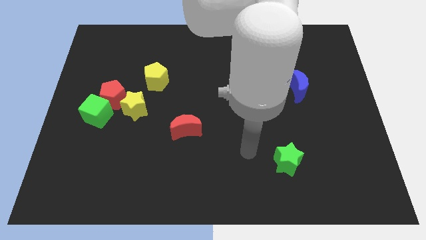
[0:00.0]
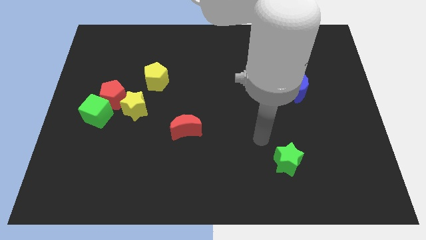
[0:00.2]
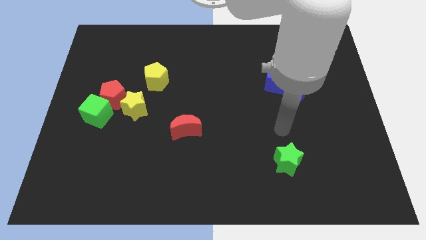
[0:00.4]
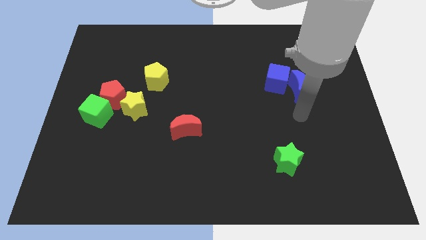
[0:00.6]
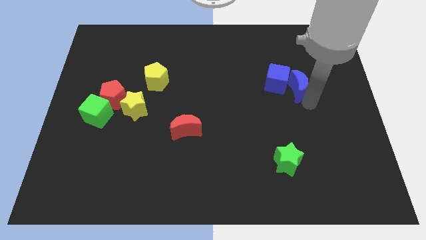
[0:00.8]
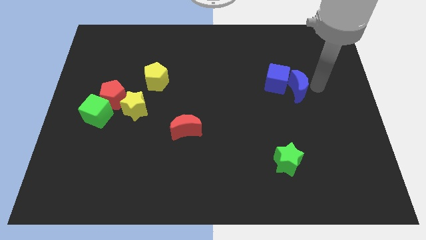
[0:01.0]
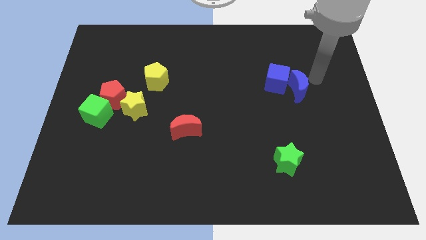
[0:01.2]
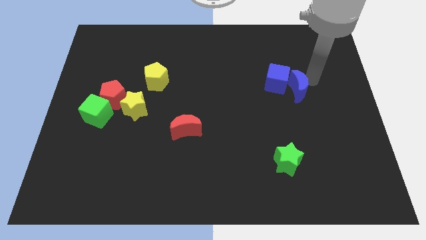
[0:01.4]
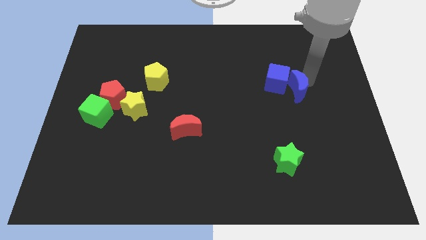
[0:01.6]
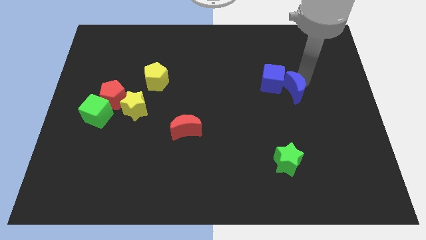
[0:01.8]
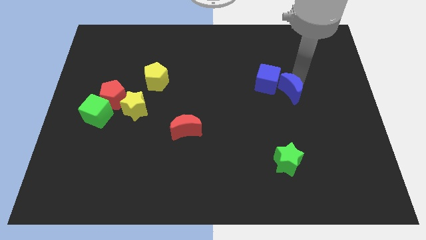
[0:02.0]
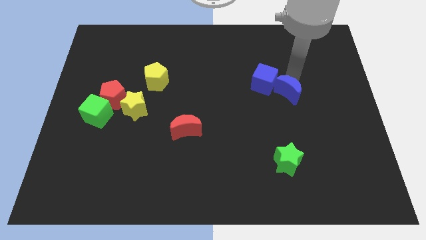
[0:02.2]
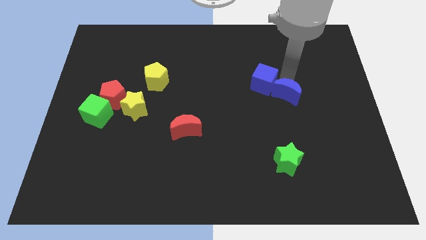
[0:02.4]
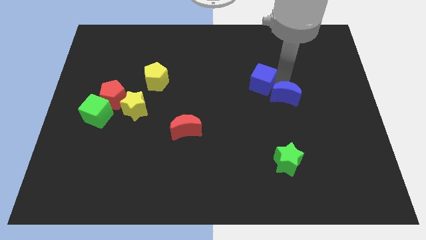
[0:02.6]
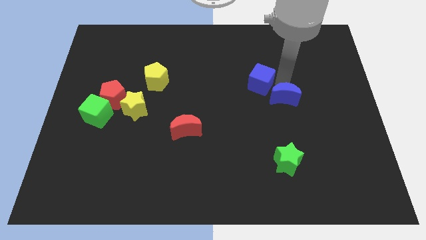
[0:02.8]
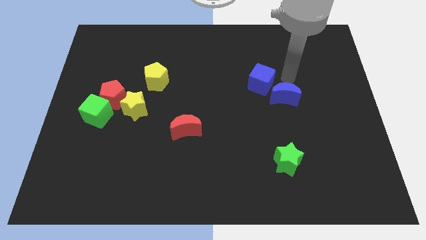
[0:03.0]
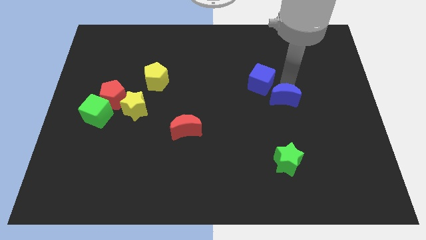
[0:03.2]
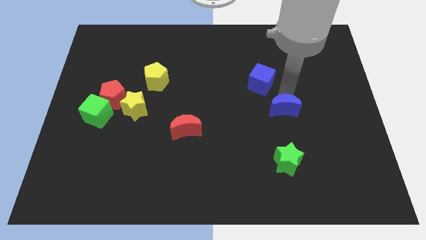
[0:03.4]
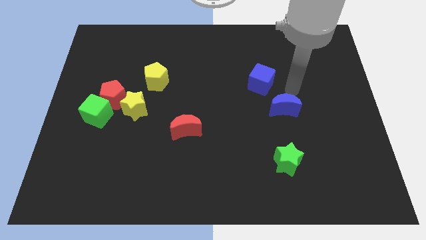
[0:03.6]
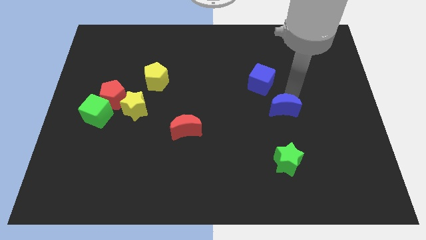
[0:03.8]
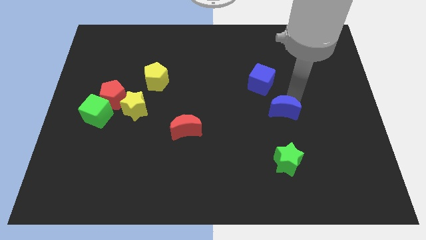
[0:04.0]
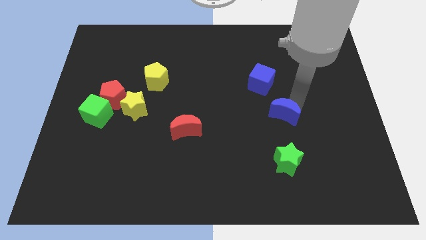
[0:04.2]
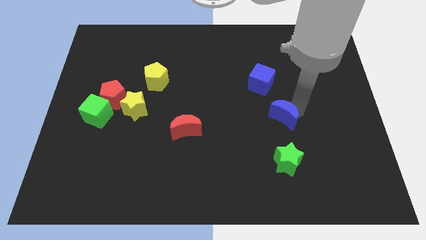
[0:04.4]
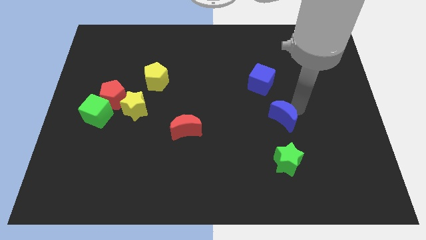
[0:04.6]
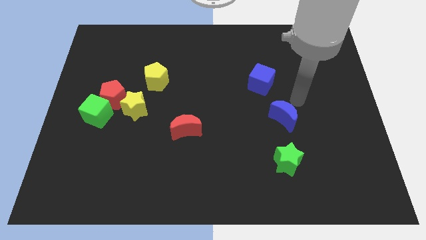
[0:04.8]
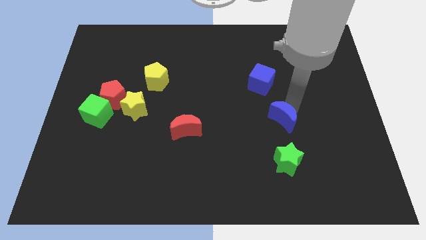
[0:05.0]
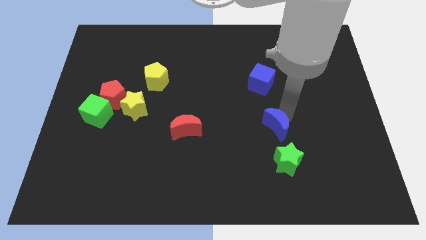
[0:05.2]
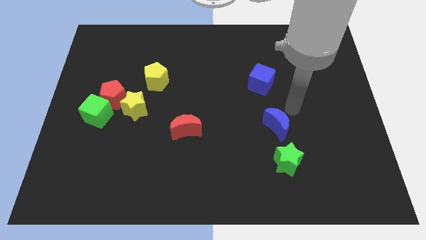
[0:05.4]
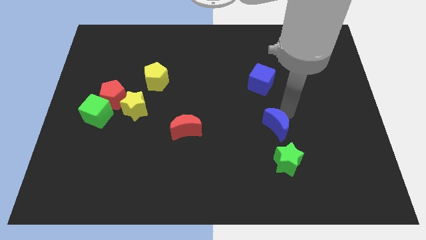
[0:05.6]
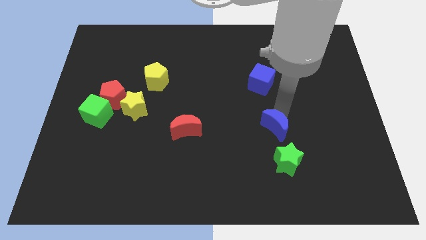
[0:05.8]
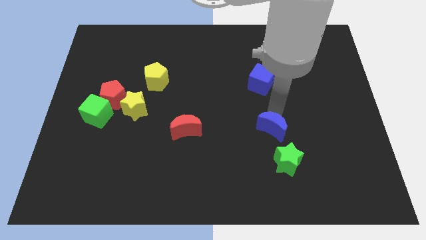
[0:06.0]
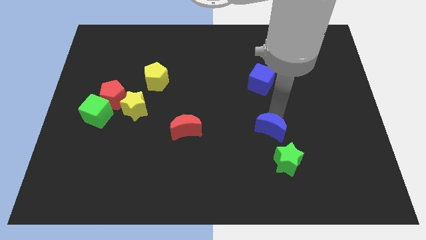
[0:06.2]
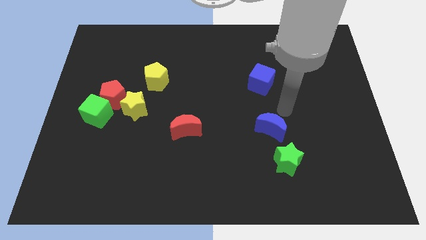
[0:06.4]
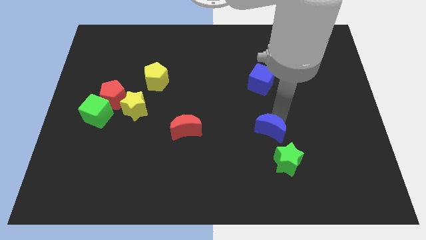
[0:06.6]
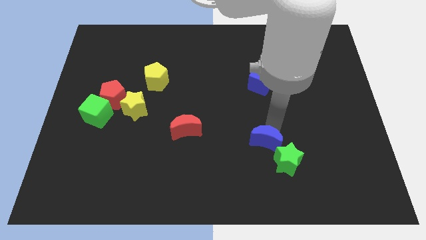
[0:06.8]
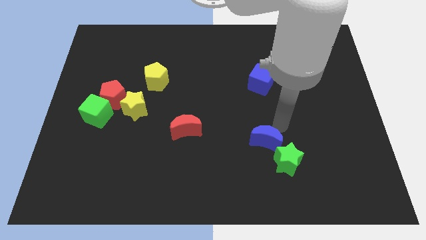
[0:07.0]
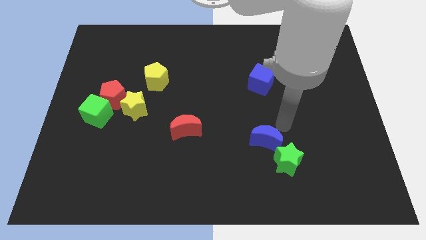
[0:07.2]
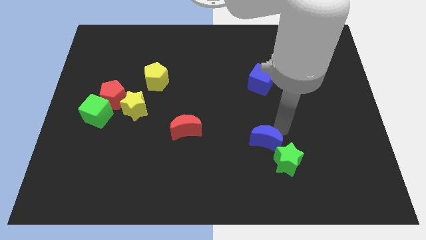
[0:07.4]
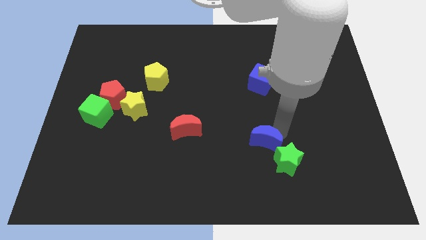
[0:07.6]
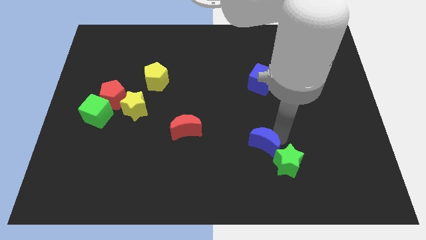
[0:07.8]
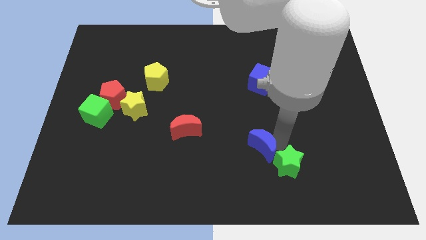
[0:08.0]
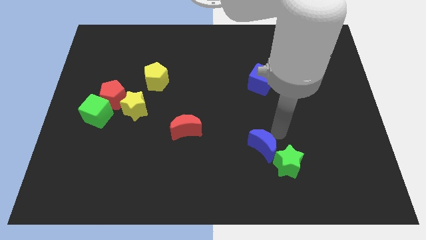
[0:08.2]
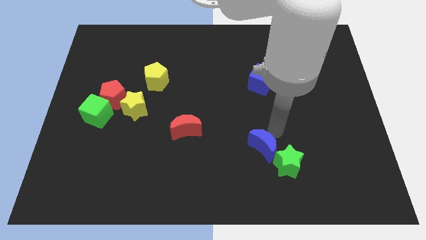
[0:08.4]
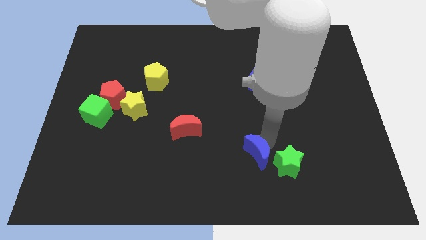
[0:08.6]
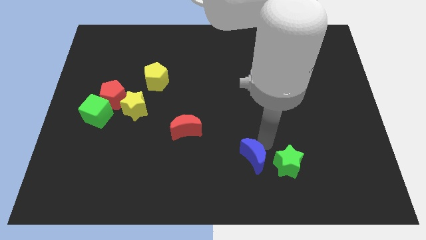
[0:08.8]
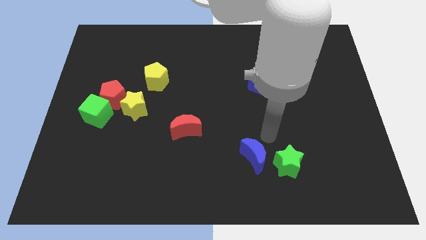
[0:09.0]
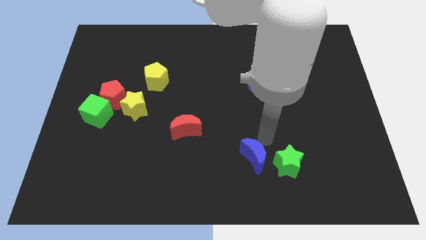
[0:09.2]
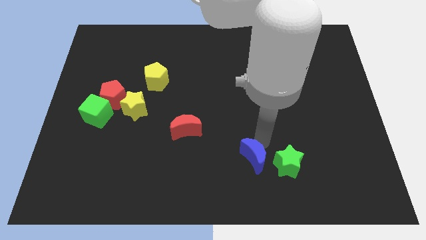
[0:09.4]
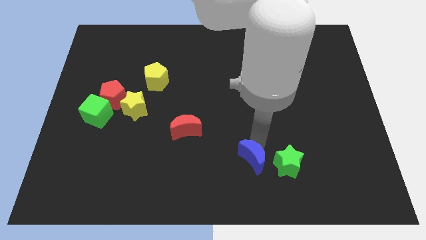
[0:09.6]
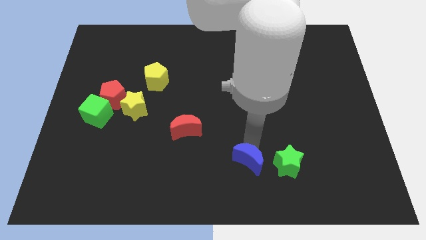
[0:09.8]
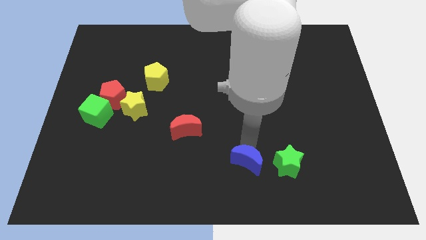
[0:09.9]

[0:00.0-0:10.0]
put the blue moon to the bottom

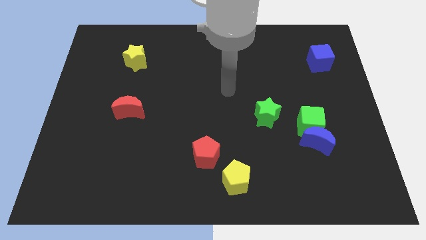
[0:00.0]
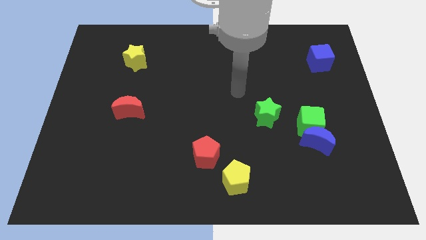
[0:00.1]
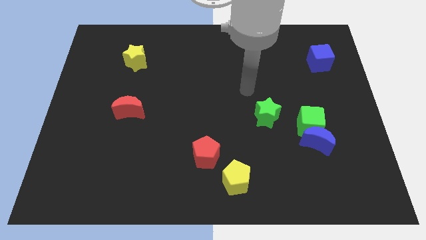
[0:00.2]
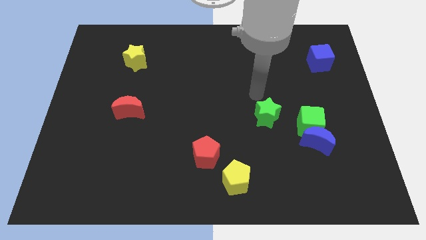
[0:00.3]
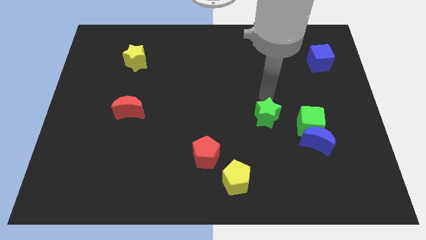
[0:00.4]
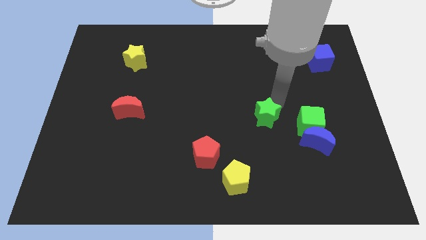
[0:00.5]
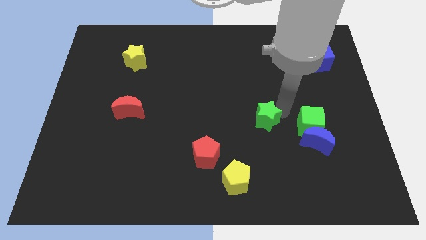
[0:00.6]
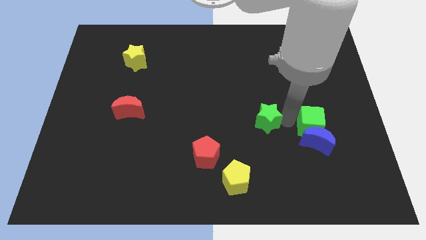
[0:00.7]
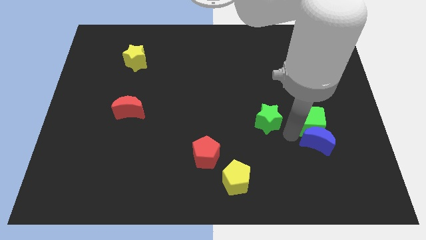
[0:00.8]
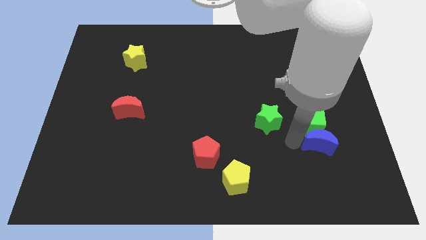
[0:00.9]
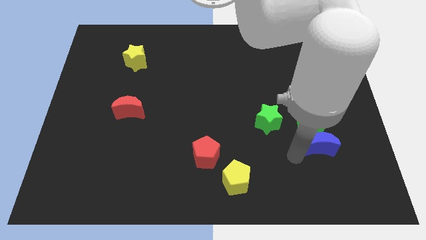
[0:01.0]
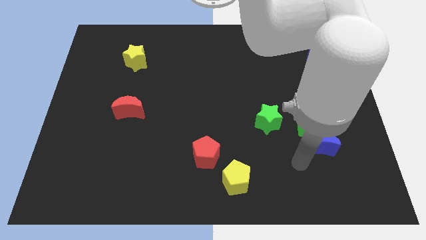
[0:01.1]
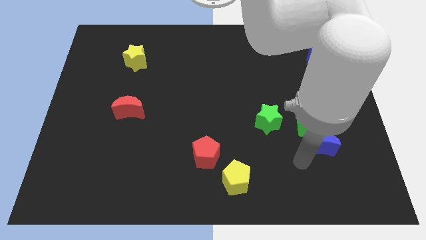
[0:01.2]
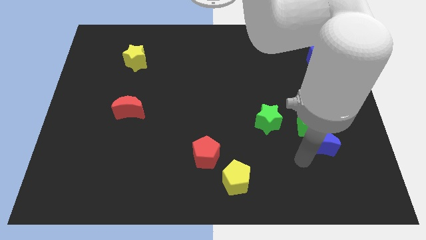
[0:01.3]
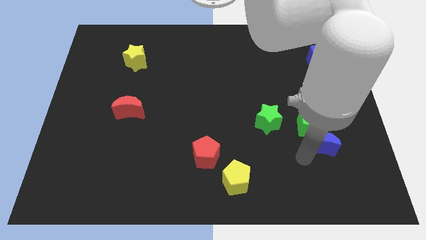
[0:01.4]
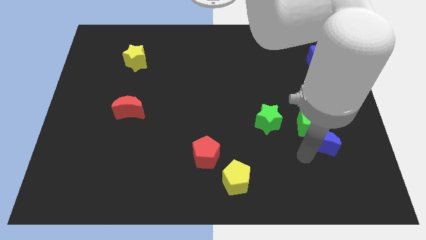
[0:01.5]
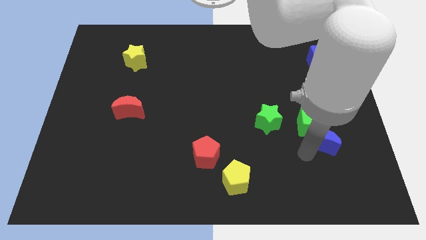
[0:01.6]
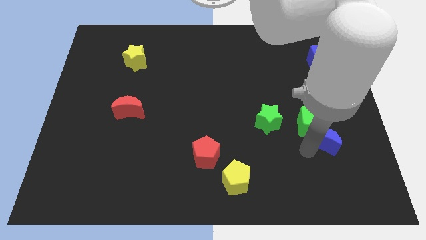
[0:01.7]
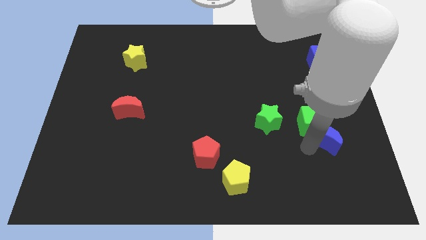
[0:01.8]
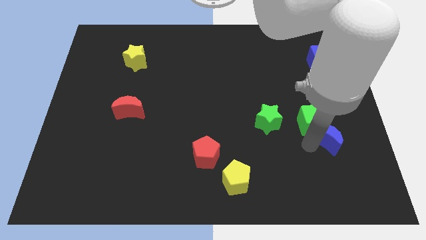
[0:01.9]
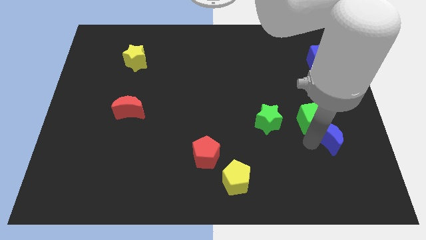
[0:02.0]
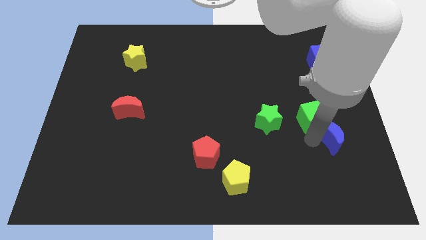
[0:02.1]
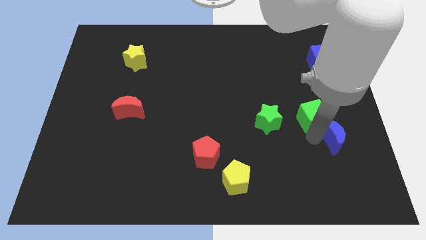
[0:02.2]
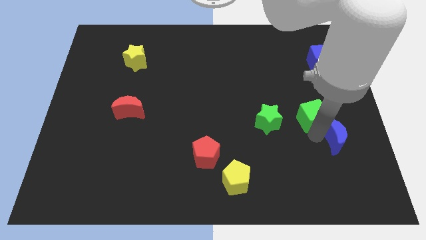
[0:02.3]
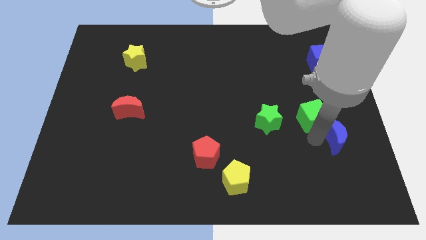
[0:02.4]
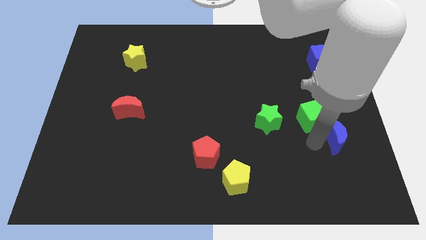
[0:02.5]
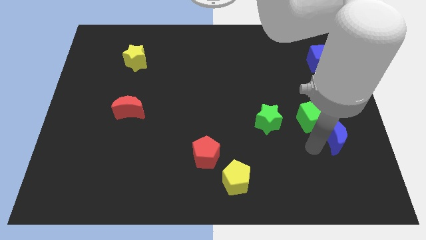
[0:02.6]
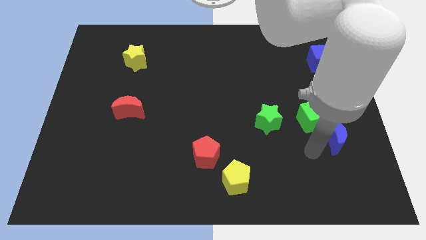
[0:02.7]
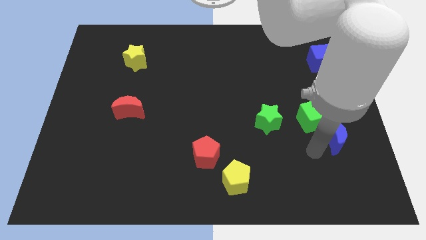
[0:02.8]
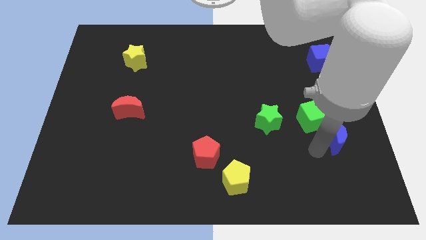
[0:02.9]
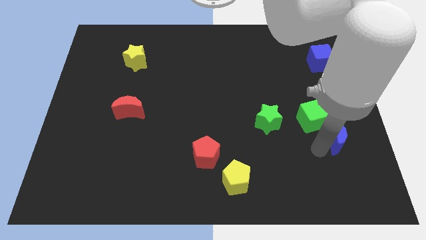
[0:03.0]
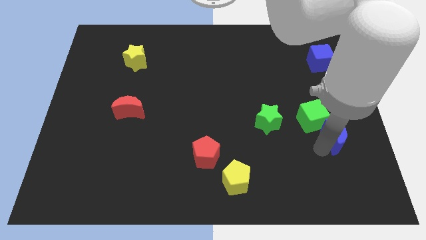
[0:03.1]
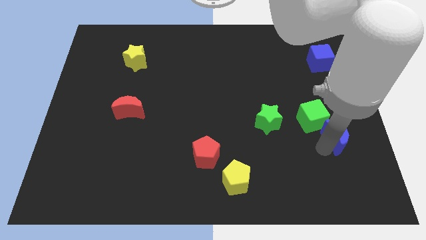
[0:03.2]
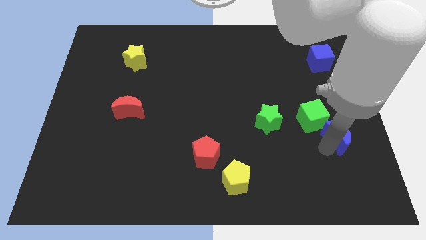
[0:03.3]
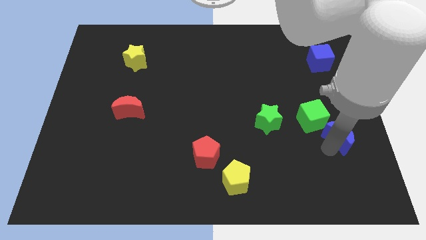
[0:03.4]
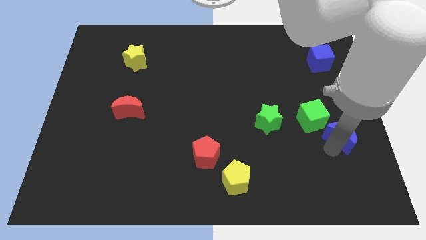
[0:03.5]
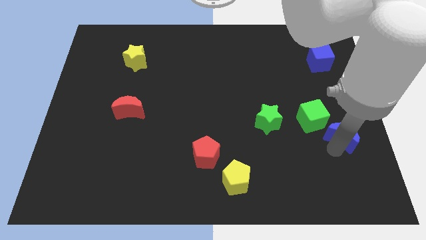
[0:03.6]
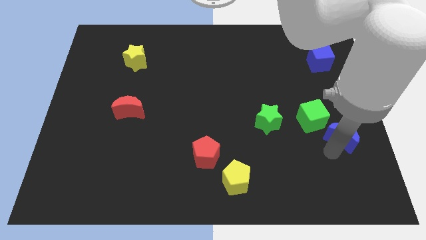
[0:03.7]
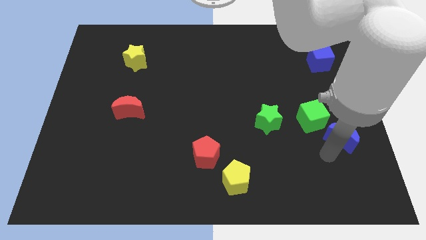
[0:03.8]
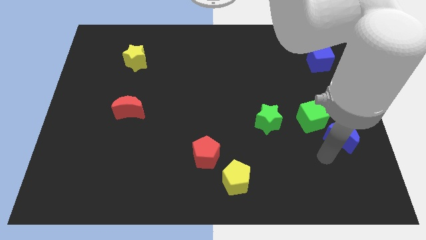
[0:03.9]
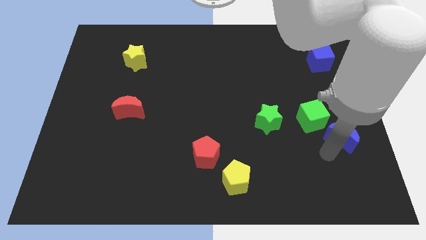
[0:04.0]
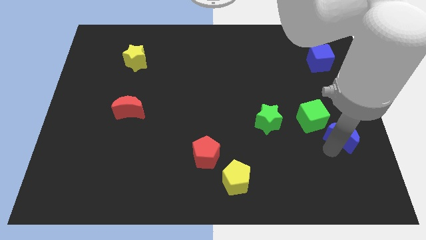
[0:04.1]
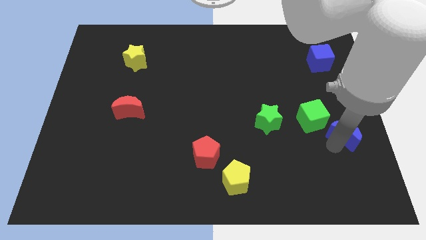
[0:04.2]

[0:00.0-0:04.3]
move the blue moon to the right side of the board
